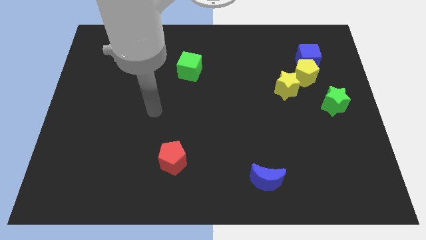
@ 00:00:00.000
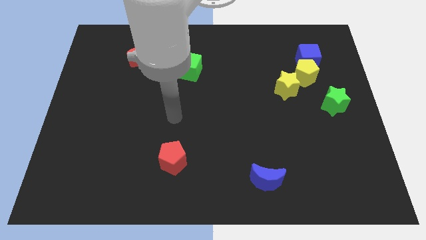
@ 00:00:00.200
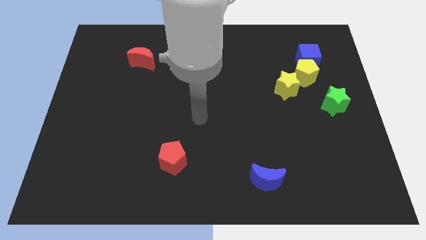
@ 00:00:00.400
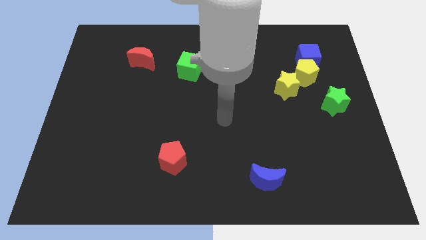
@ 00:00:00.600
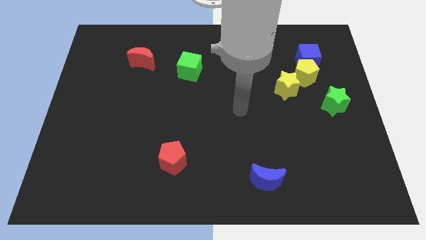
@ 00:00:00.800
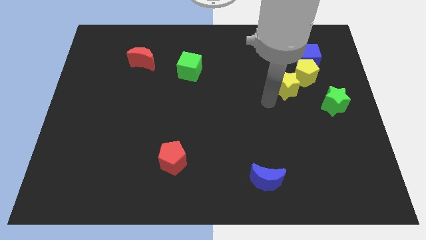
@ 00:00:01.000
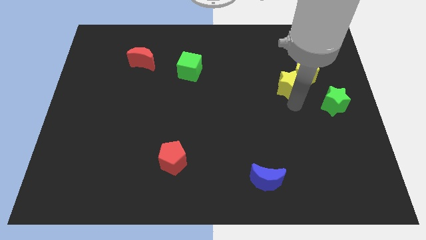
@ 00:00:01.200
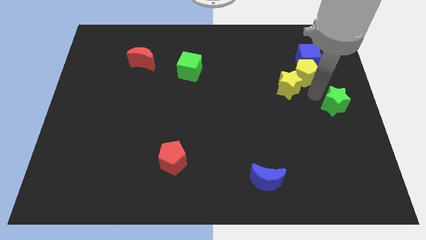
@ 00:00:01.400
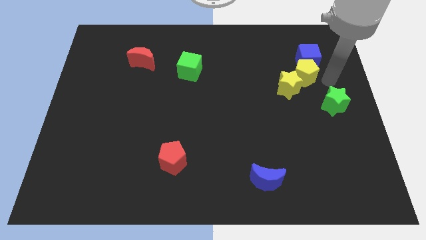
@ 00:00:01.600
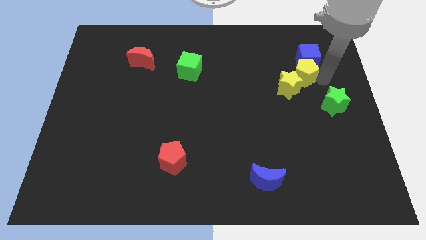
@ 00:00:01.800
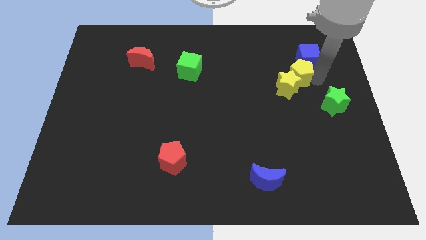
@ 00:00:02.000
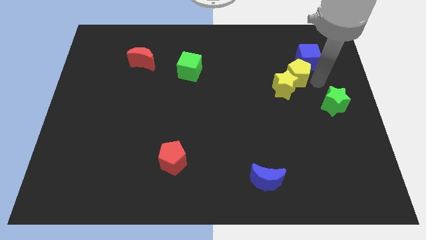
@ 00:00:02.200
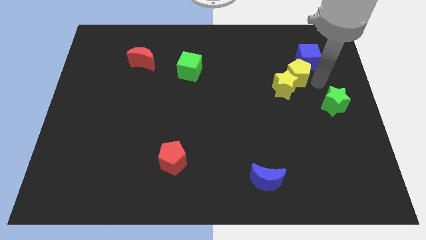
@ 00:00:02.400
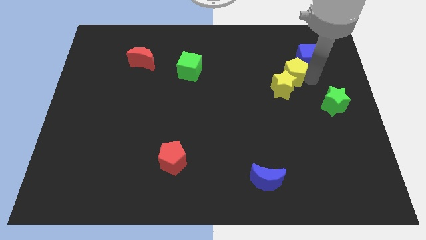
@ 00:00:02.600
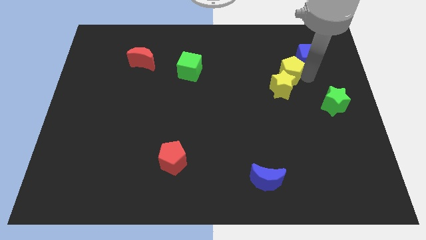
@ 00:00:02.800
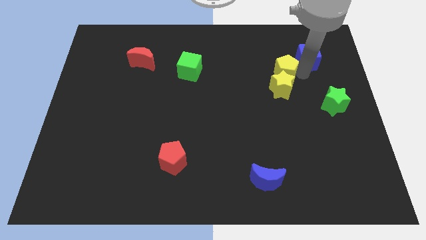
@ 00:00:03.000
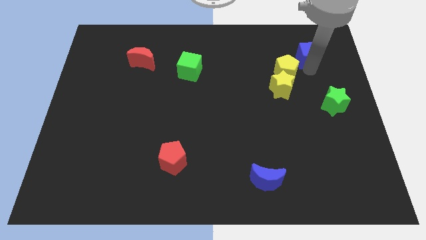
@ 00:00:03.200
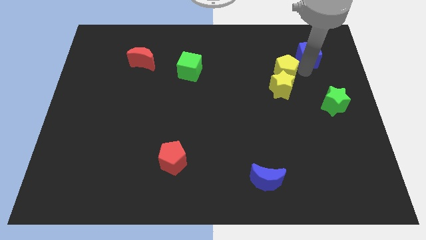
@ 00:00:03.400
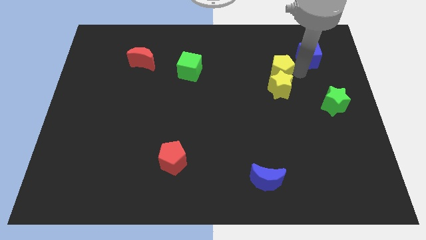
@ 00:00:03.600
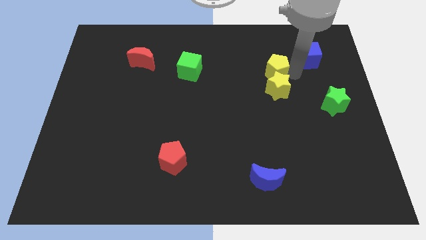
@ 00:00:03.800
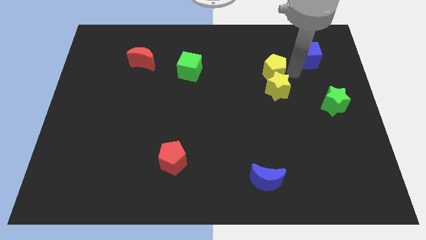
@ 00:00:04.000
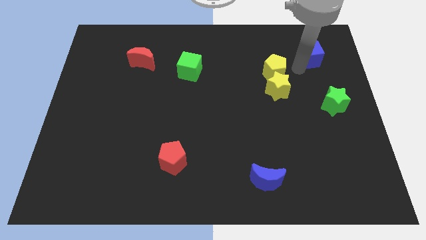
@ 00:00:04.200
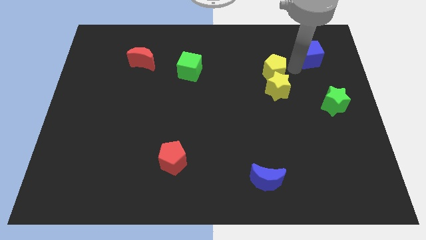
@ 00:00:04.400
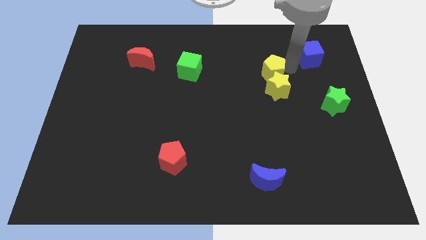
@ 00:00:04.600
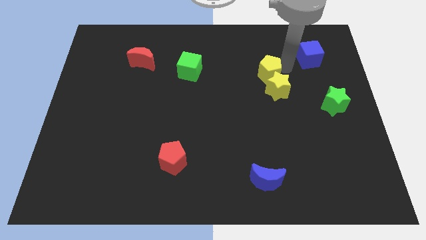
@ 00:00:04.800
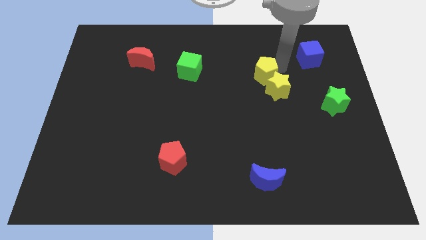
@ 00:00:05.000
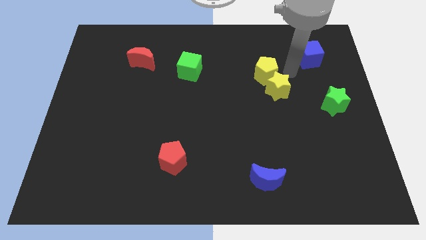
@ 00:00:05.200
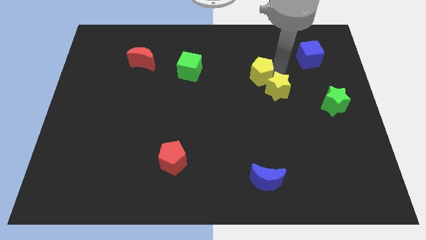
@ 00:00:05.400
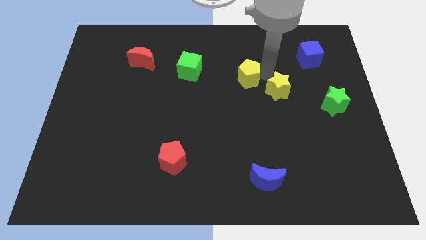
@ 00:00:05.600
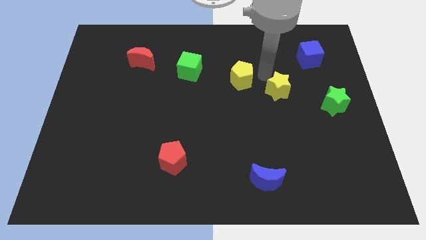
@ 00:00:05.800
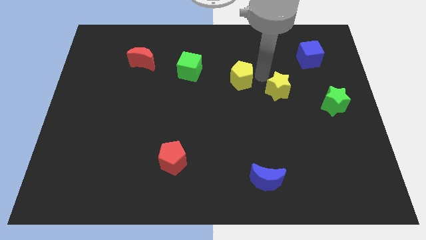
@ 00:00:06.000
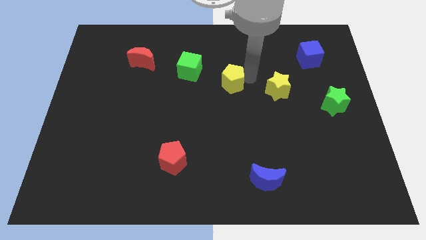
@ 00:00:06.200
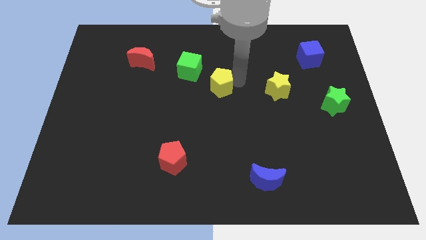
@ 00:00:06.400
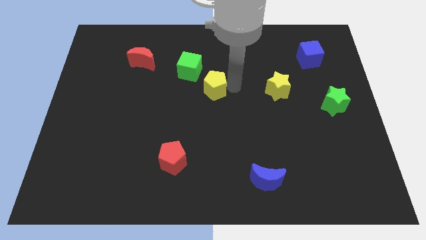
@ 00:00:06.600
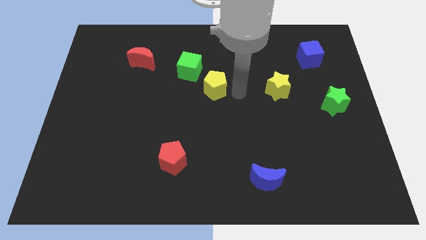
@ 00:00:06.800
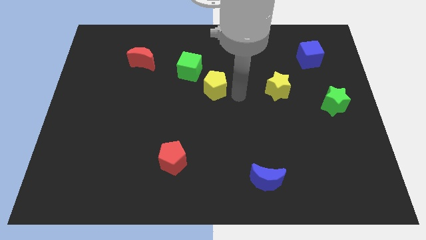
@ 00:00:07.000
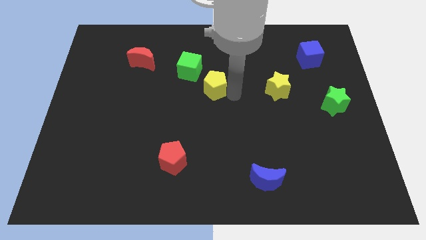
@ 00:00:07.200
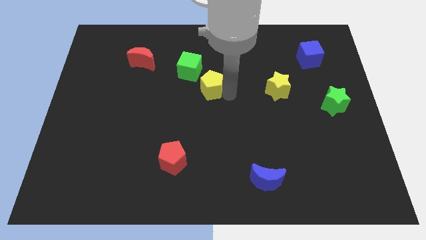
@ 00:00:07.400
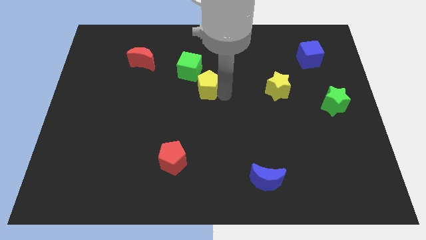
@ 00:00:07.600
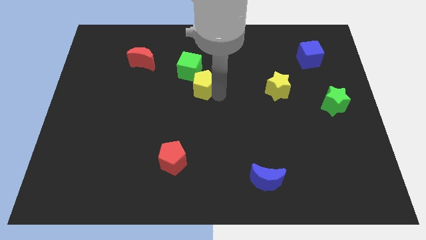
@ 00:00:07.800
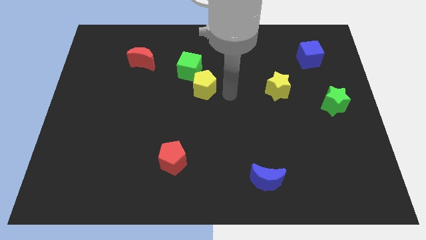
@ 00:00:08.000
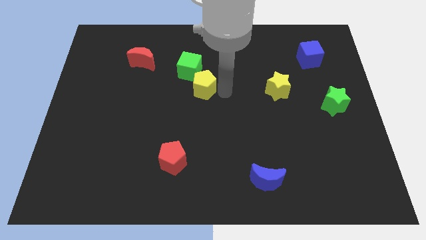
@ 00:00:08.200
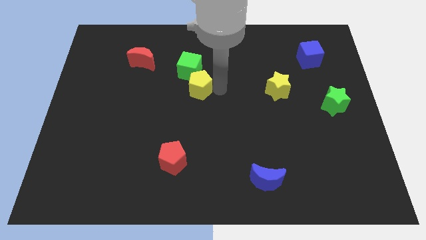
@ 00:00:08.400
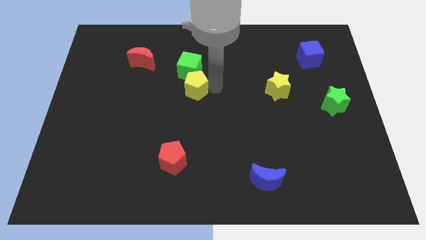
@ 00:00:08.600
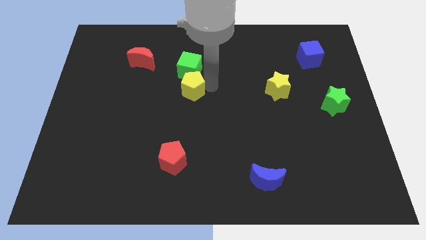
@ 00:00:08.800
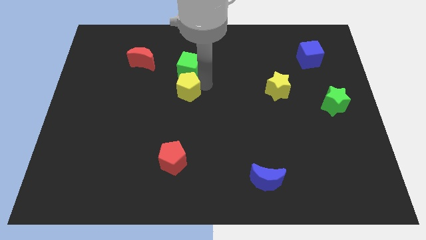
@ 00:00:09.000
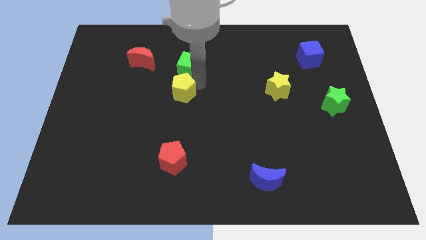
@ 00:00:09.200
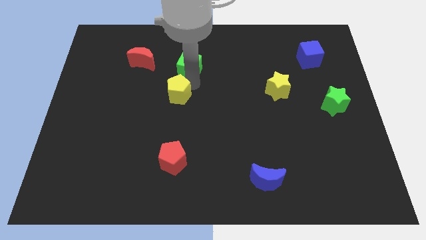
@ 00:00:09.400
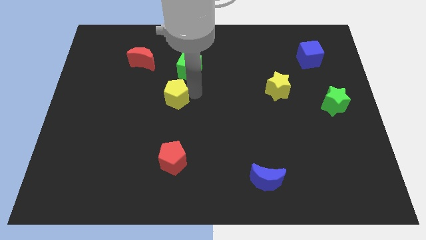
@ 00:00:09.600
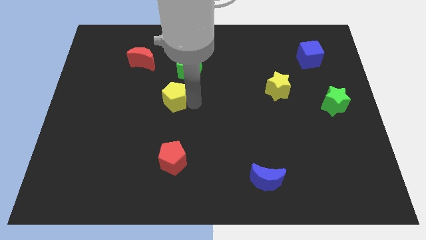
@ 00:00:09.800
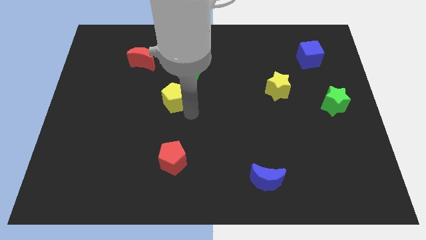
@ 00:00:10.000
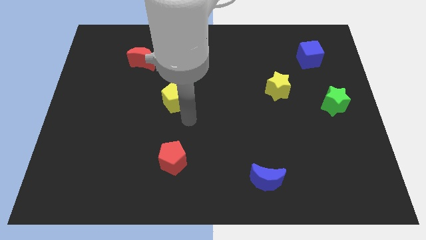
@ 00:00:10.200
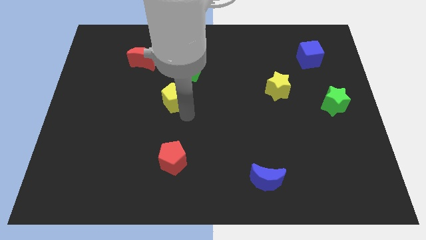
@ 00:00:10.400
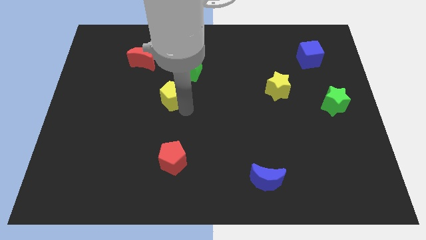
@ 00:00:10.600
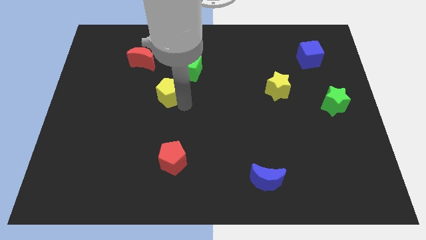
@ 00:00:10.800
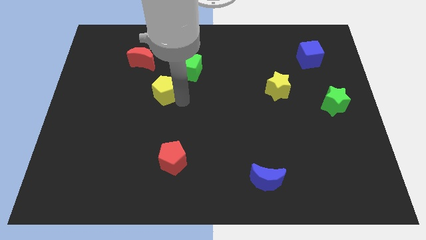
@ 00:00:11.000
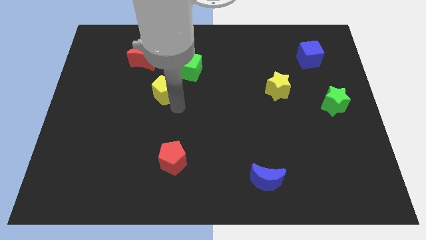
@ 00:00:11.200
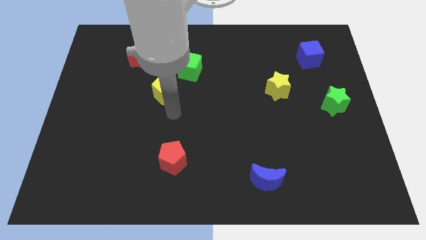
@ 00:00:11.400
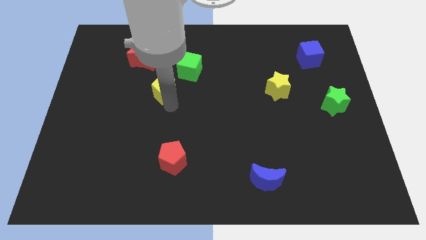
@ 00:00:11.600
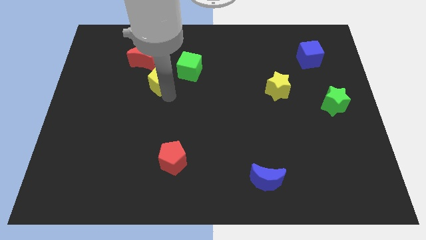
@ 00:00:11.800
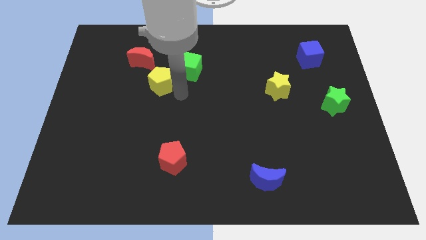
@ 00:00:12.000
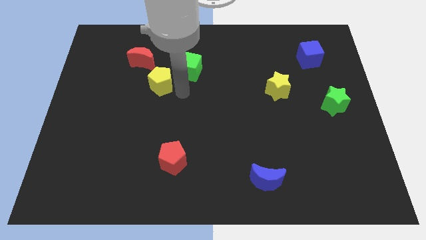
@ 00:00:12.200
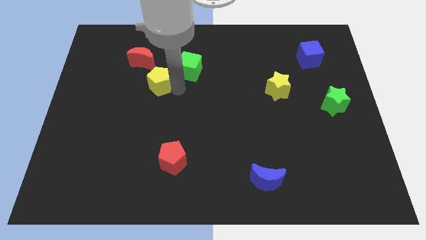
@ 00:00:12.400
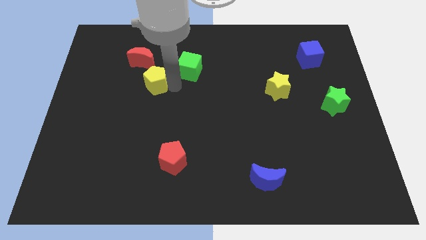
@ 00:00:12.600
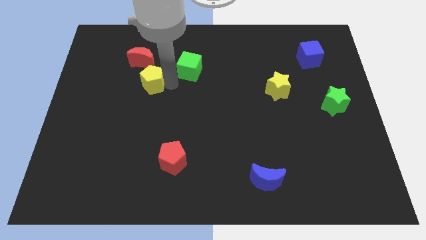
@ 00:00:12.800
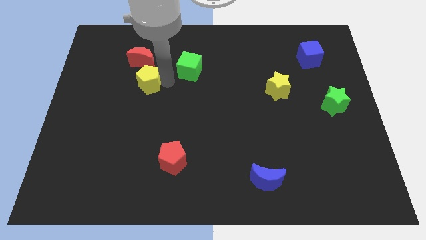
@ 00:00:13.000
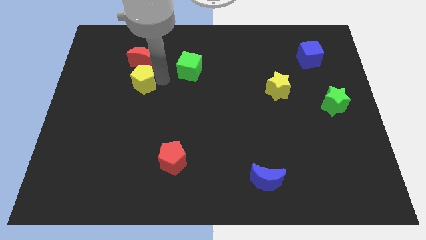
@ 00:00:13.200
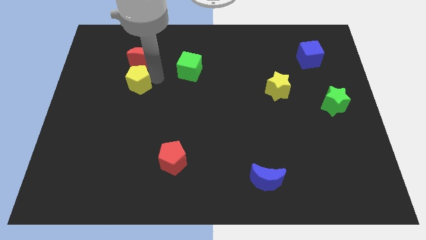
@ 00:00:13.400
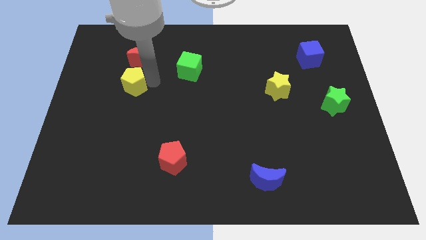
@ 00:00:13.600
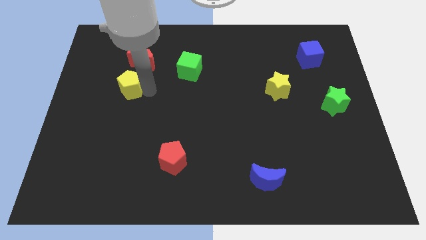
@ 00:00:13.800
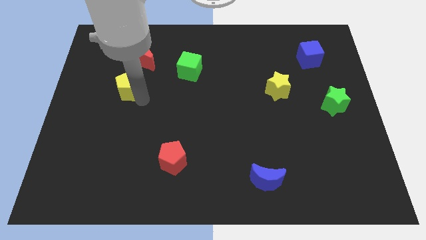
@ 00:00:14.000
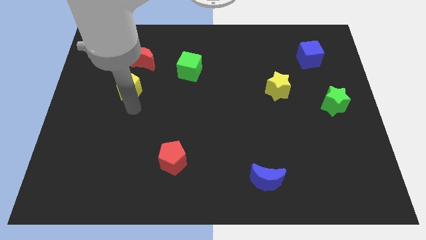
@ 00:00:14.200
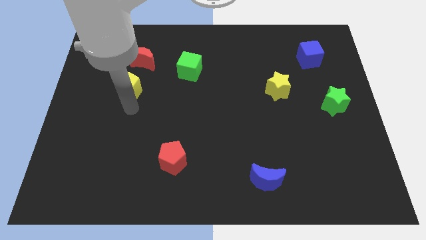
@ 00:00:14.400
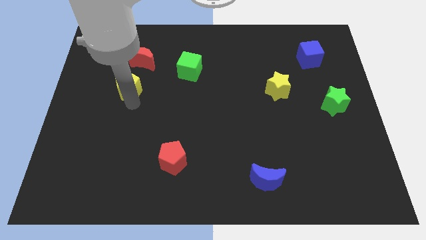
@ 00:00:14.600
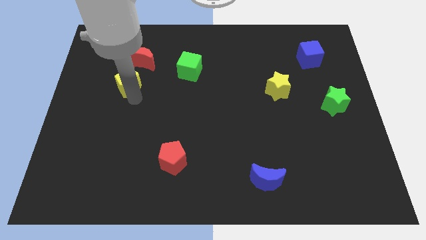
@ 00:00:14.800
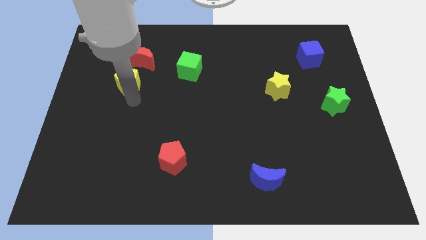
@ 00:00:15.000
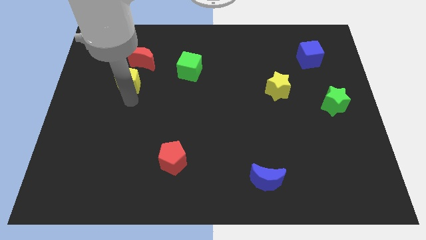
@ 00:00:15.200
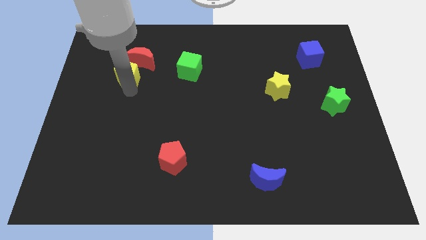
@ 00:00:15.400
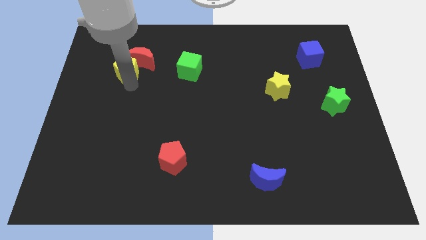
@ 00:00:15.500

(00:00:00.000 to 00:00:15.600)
move the yellow pentagon to the left of the red moon
